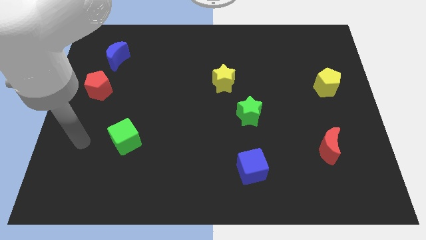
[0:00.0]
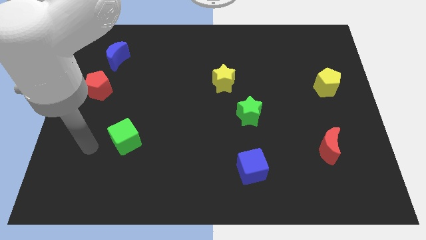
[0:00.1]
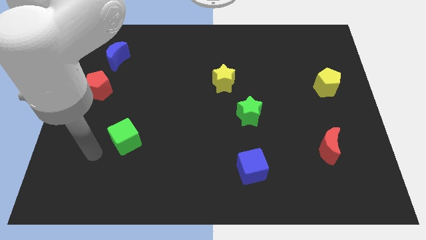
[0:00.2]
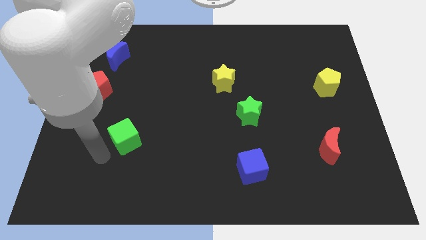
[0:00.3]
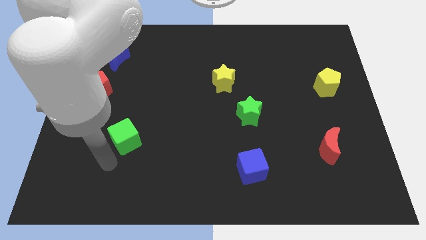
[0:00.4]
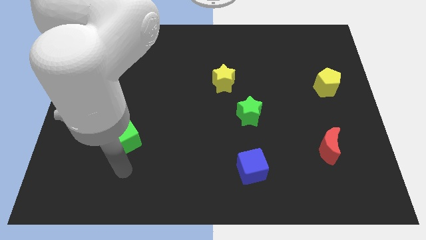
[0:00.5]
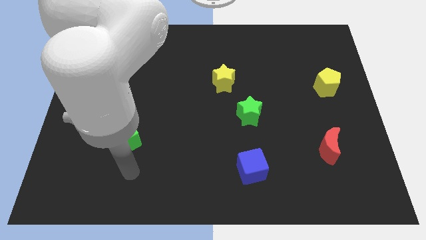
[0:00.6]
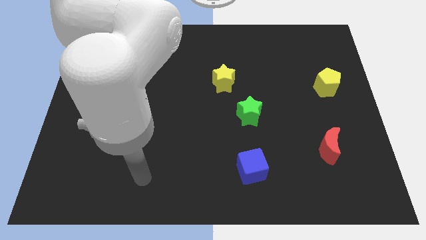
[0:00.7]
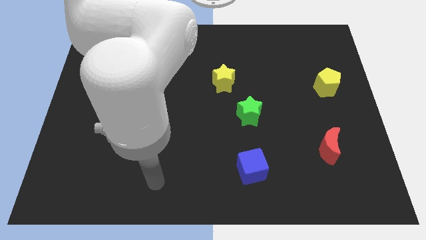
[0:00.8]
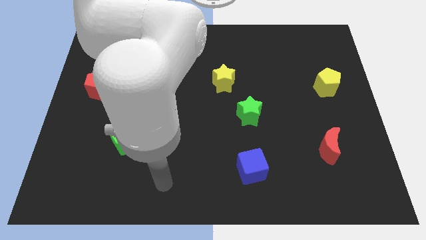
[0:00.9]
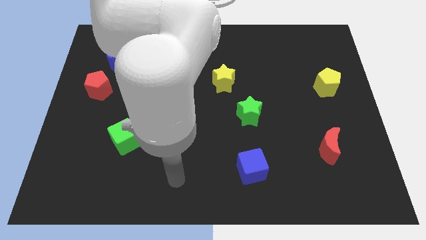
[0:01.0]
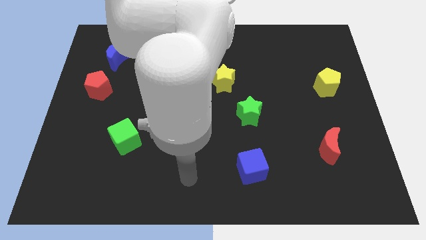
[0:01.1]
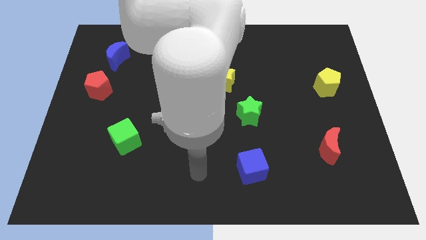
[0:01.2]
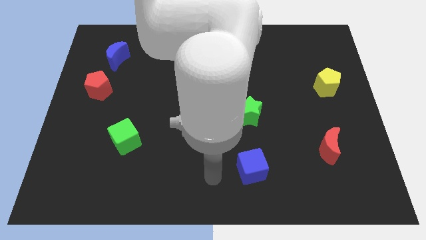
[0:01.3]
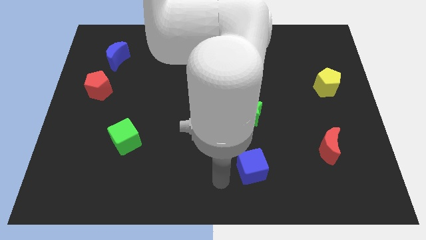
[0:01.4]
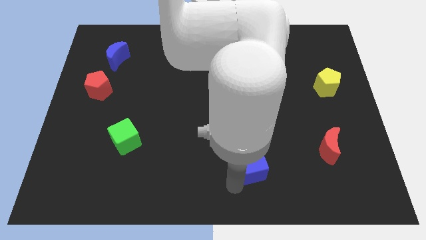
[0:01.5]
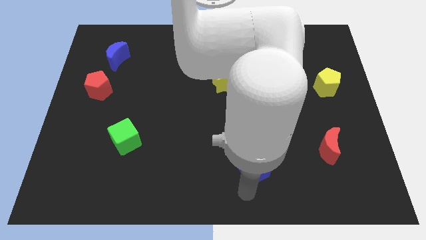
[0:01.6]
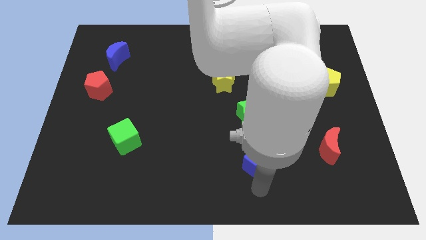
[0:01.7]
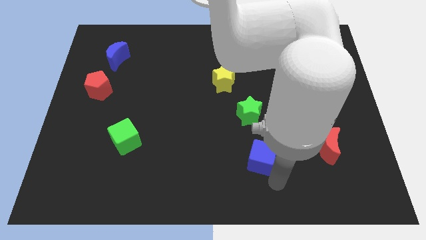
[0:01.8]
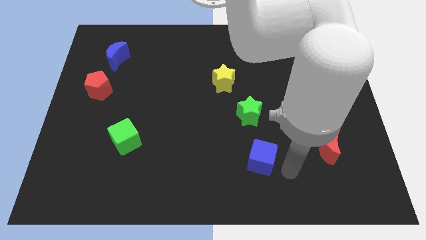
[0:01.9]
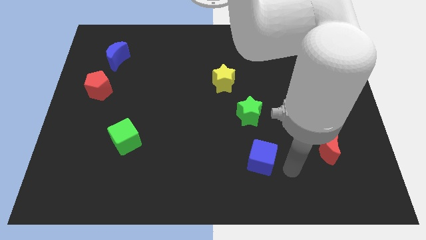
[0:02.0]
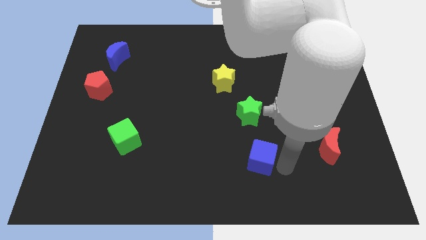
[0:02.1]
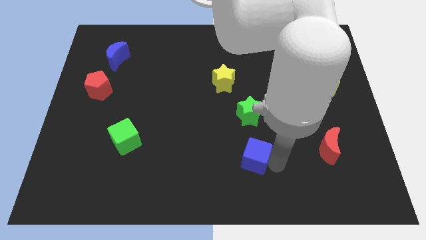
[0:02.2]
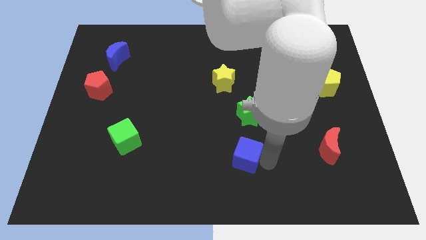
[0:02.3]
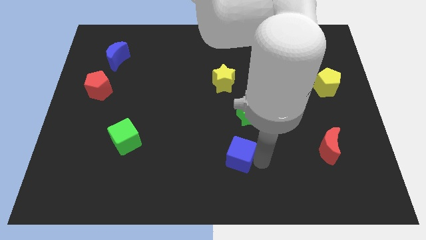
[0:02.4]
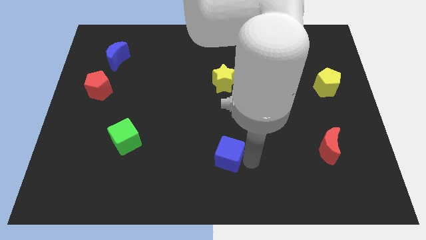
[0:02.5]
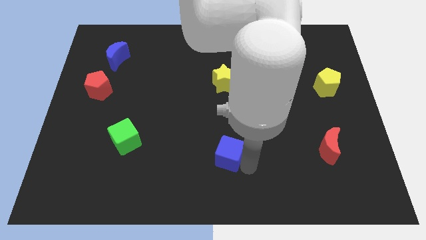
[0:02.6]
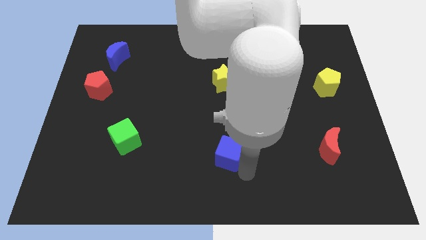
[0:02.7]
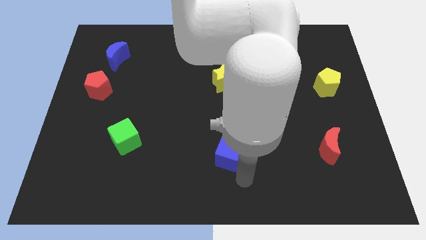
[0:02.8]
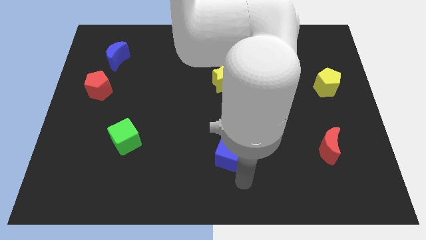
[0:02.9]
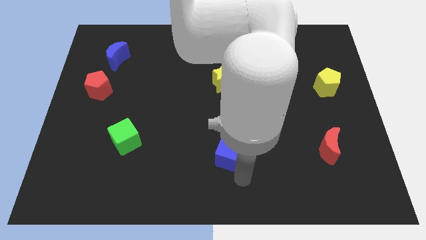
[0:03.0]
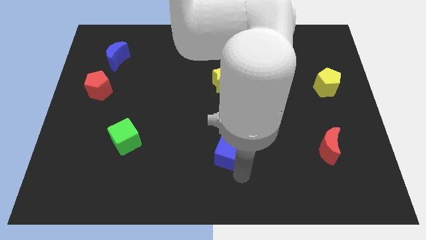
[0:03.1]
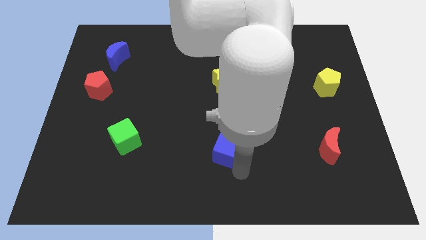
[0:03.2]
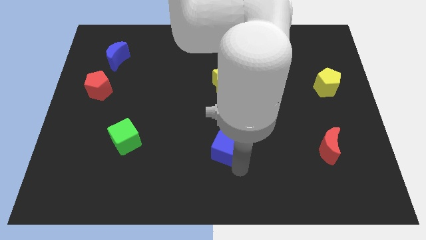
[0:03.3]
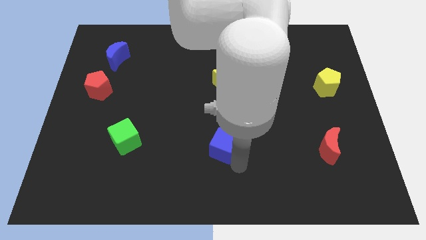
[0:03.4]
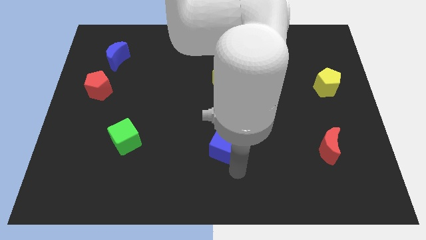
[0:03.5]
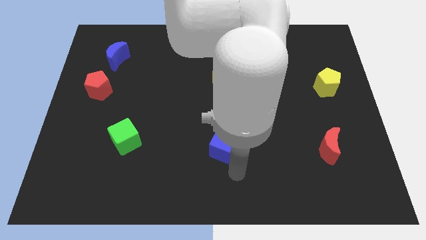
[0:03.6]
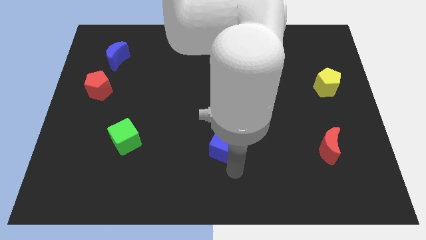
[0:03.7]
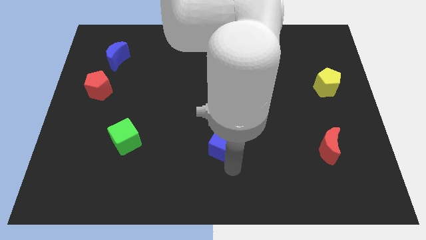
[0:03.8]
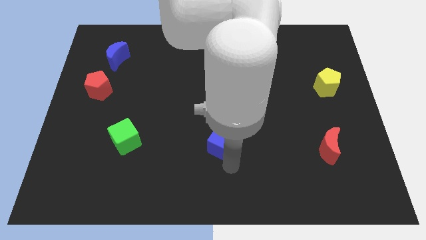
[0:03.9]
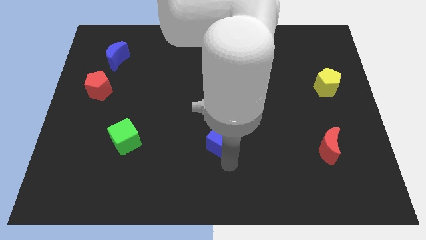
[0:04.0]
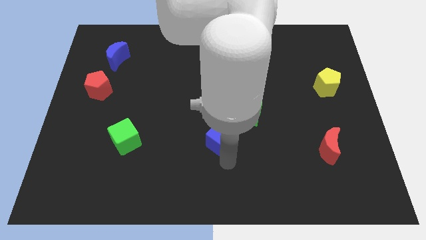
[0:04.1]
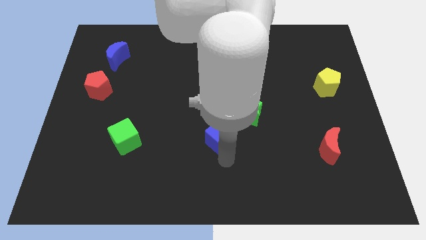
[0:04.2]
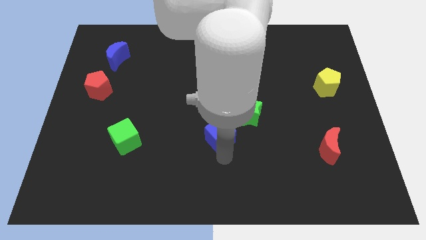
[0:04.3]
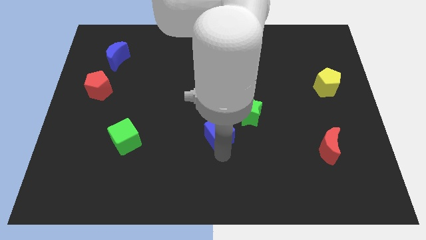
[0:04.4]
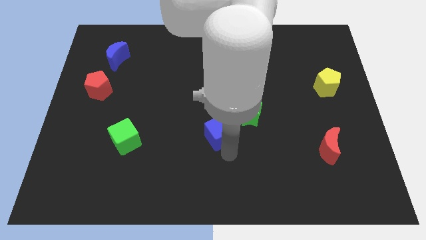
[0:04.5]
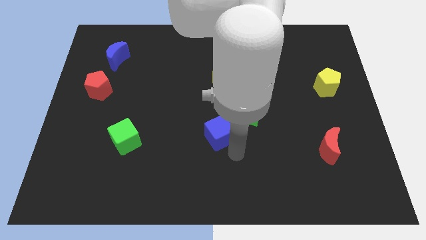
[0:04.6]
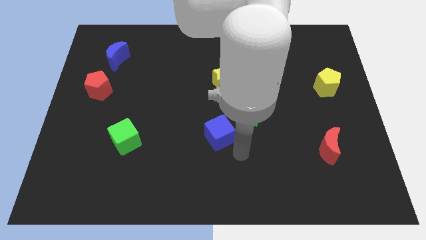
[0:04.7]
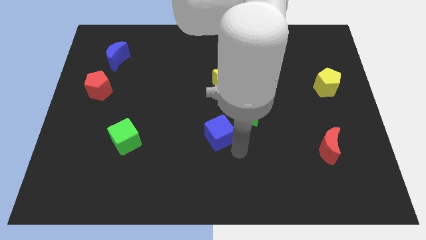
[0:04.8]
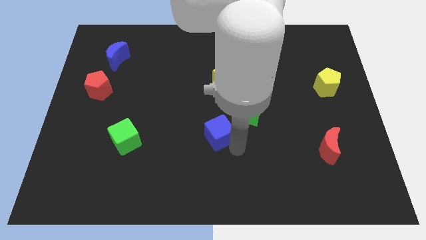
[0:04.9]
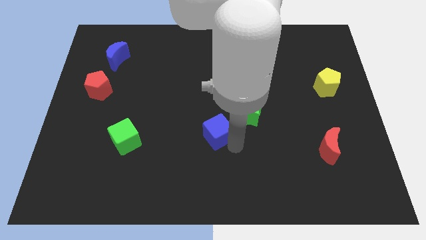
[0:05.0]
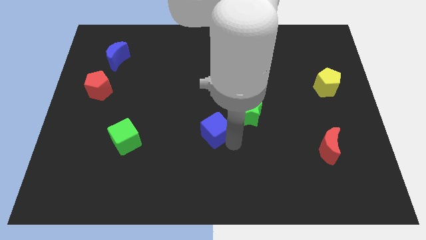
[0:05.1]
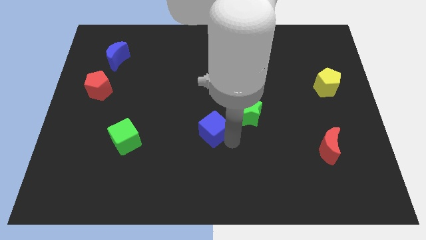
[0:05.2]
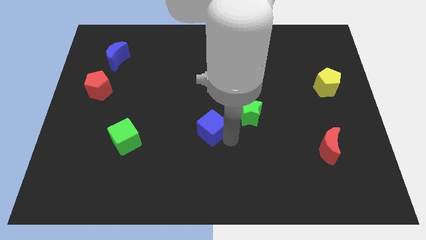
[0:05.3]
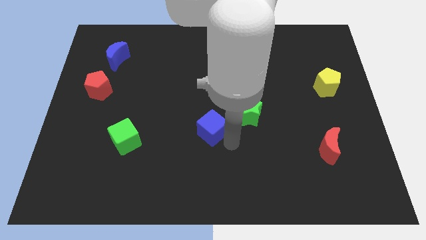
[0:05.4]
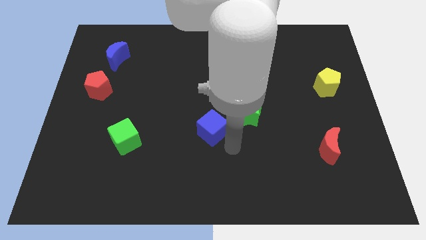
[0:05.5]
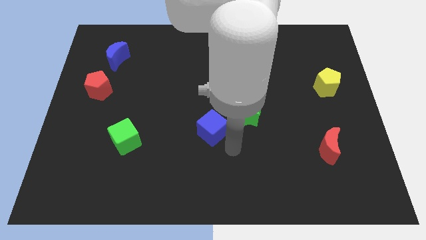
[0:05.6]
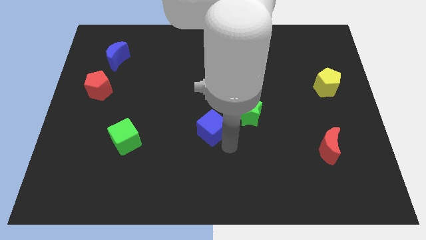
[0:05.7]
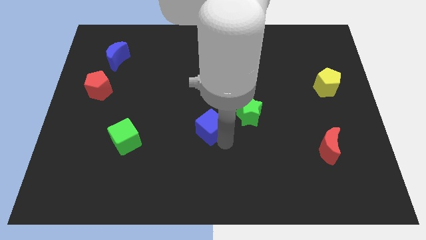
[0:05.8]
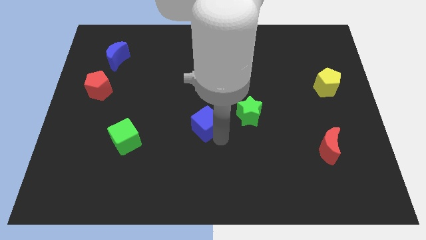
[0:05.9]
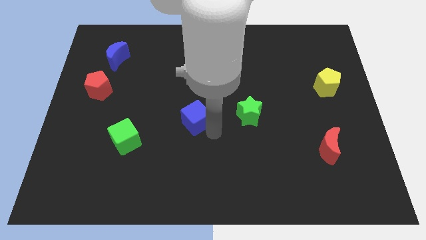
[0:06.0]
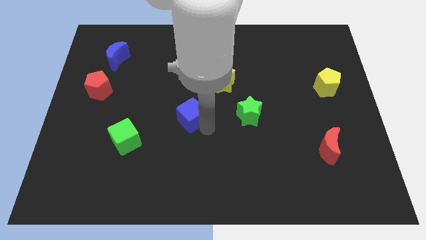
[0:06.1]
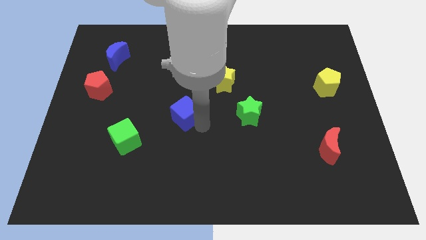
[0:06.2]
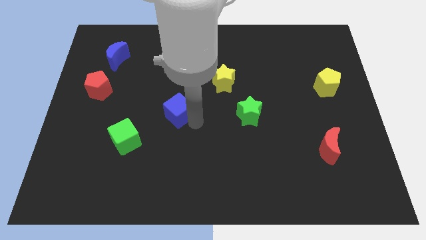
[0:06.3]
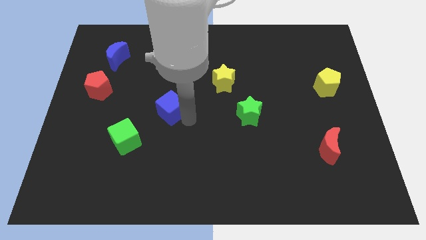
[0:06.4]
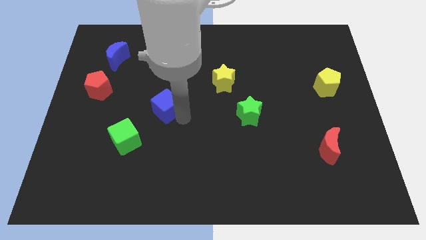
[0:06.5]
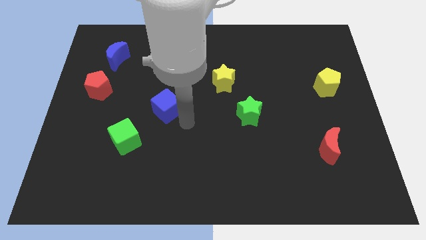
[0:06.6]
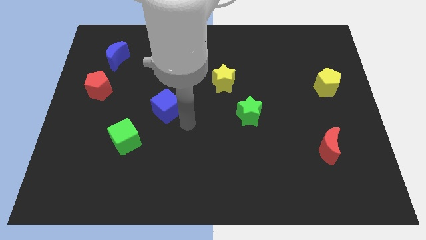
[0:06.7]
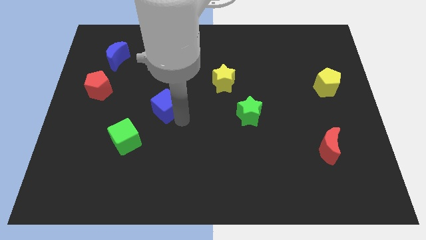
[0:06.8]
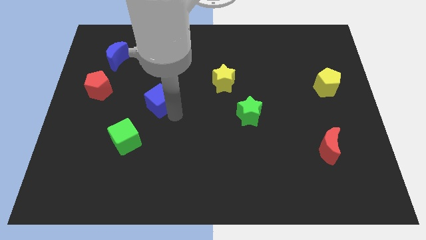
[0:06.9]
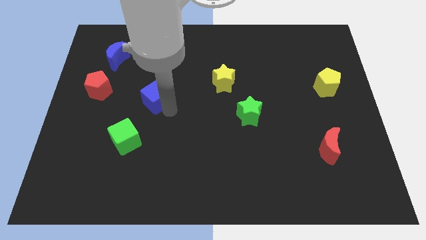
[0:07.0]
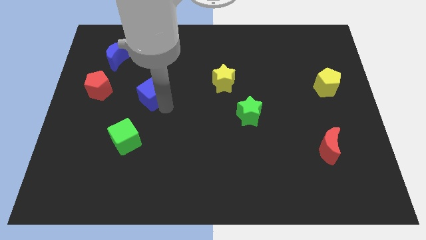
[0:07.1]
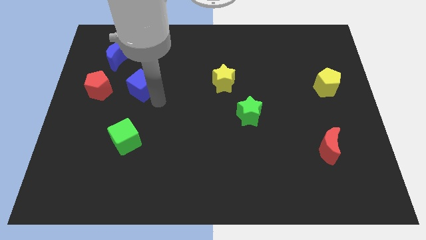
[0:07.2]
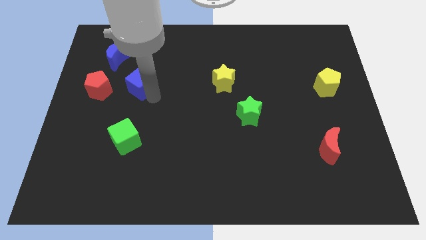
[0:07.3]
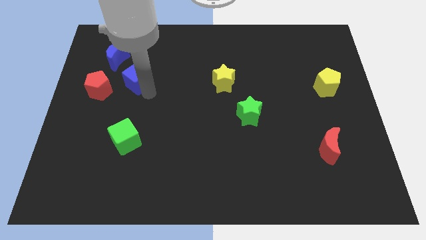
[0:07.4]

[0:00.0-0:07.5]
slide the blue cube diagonally up and to the right of the red pentagon
